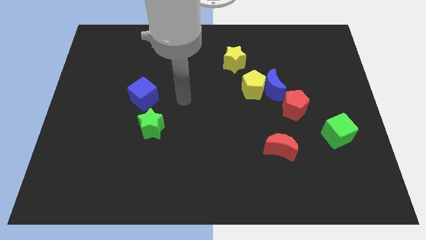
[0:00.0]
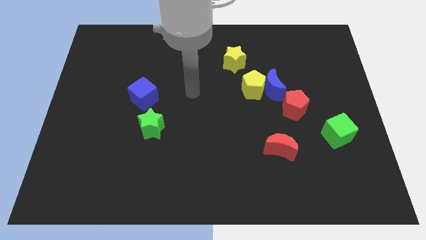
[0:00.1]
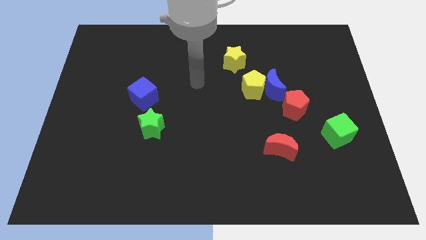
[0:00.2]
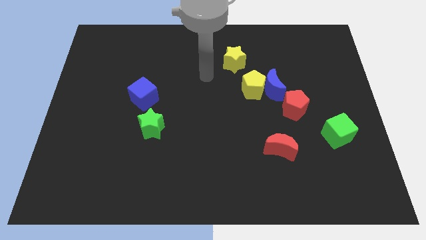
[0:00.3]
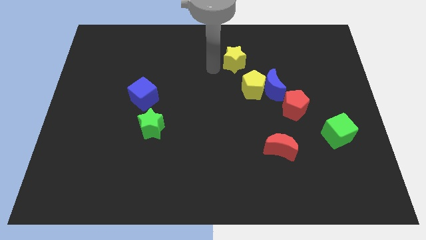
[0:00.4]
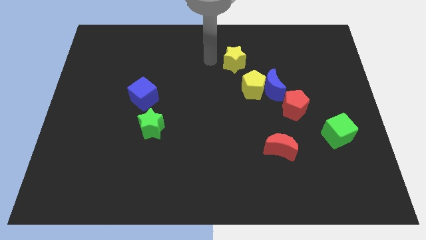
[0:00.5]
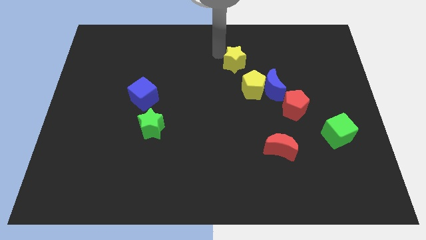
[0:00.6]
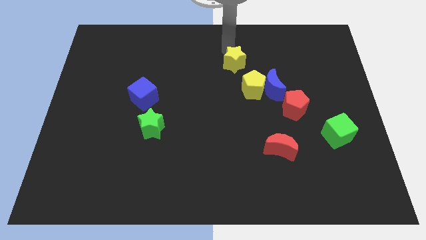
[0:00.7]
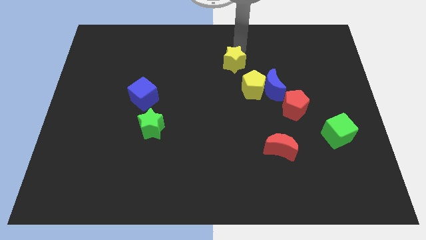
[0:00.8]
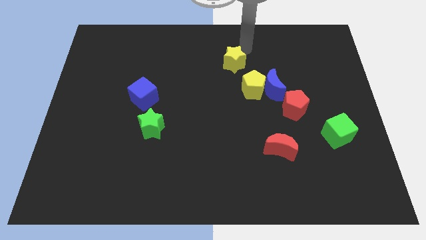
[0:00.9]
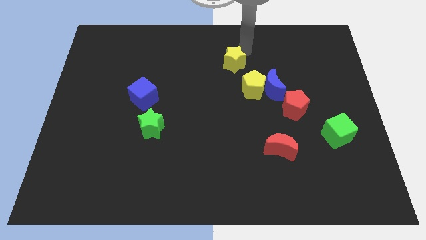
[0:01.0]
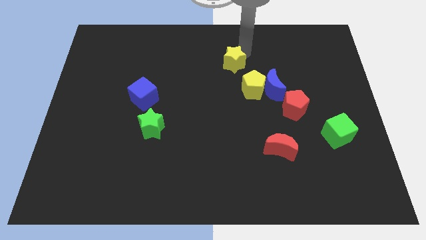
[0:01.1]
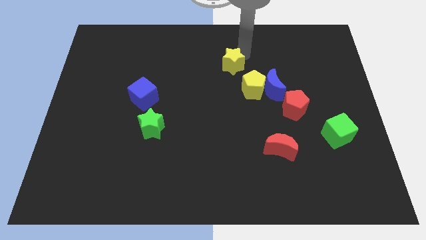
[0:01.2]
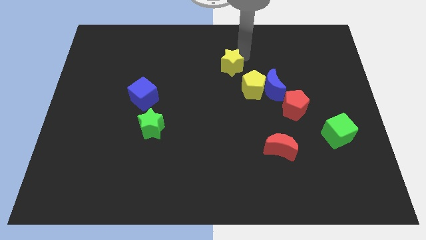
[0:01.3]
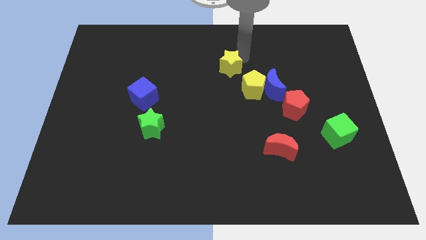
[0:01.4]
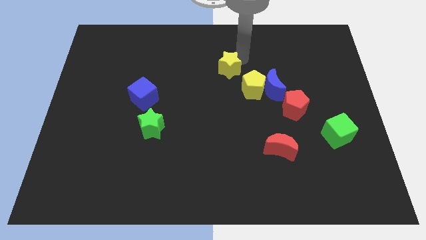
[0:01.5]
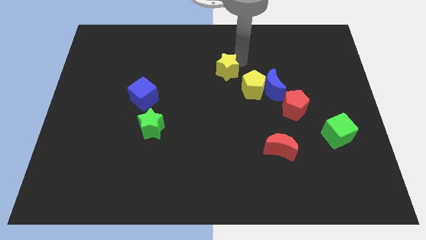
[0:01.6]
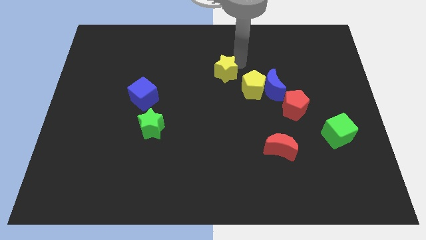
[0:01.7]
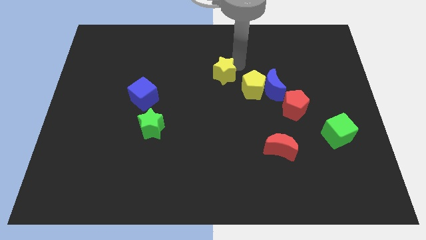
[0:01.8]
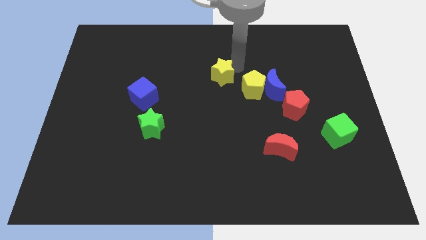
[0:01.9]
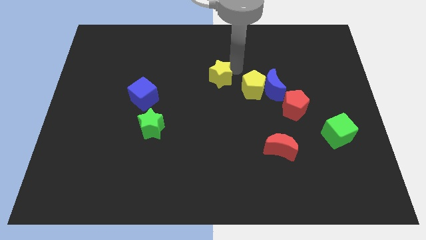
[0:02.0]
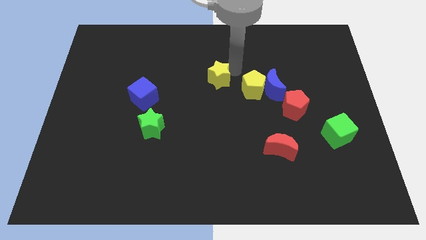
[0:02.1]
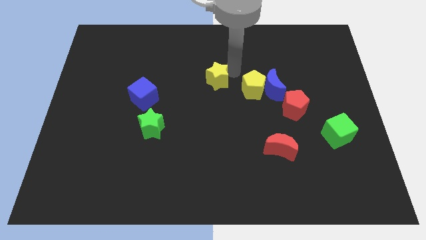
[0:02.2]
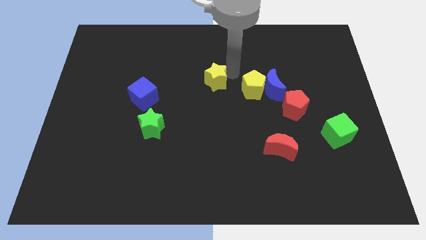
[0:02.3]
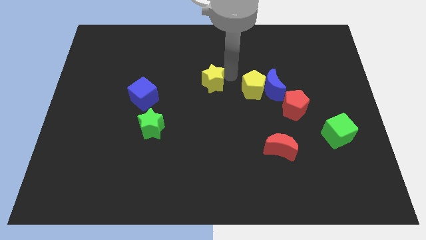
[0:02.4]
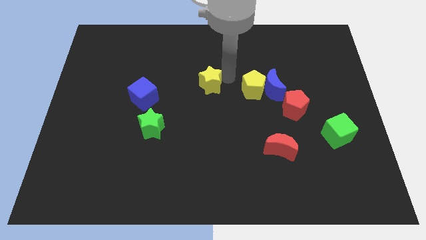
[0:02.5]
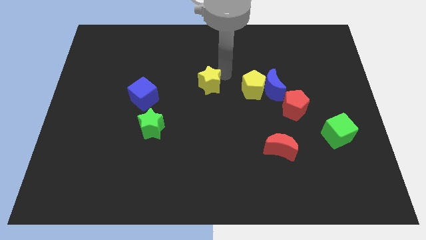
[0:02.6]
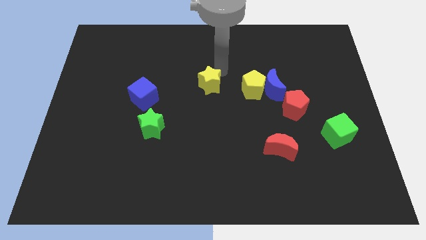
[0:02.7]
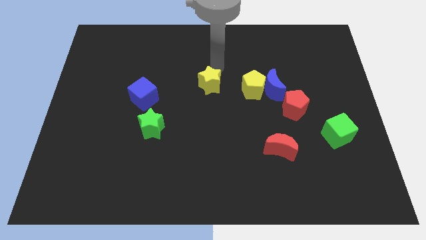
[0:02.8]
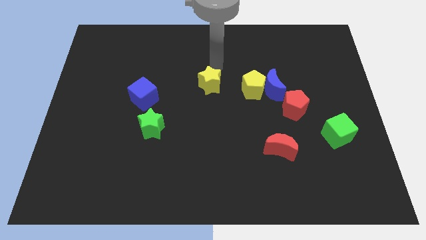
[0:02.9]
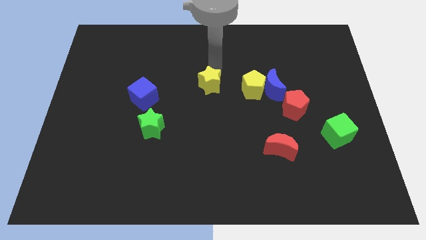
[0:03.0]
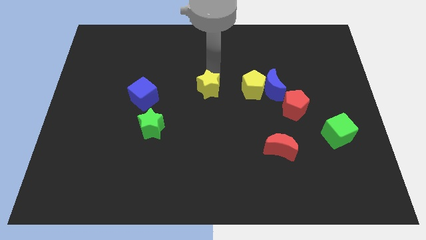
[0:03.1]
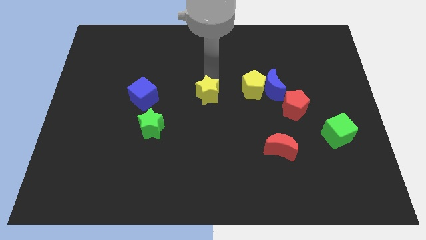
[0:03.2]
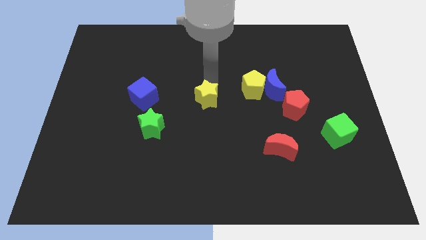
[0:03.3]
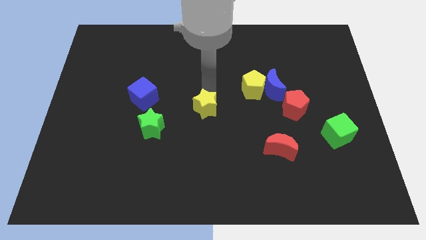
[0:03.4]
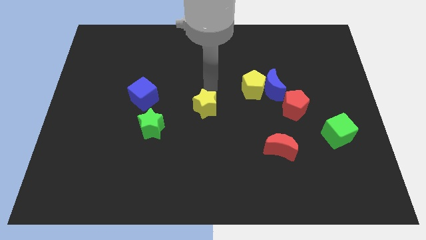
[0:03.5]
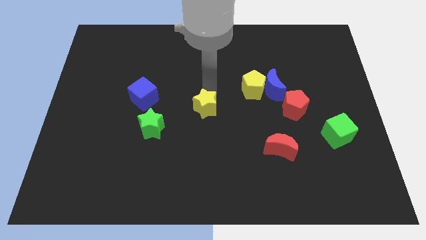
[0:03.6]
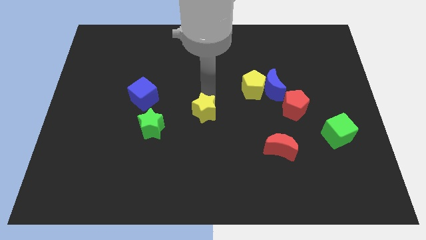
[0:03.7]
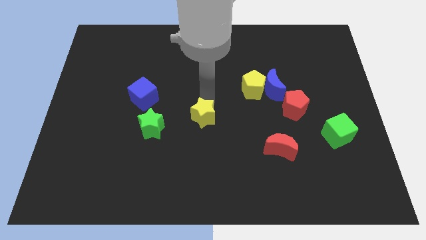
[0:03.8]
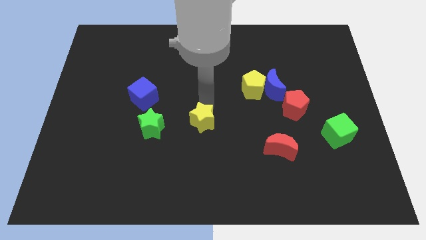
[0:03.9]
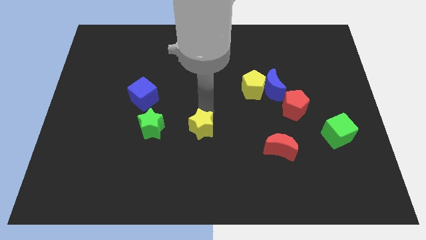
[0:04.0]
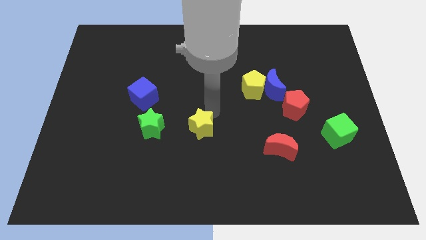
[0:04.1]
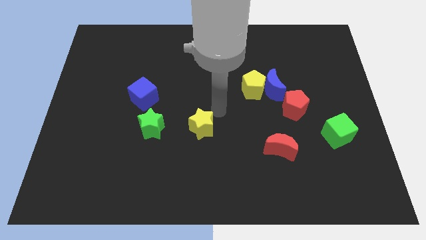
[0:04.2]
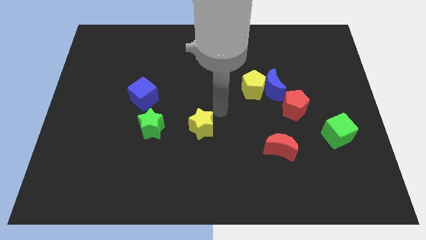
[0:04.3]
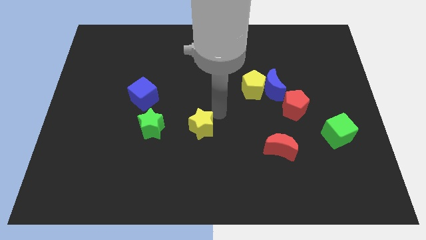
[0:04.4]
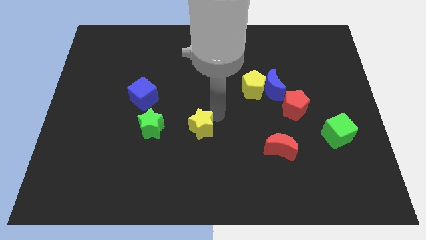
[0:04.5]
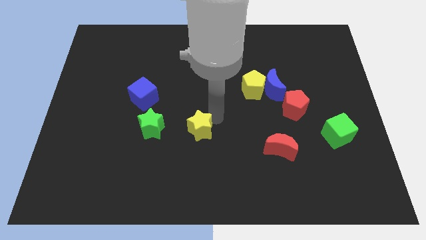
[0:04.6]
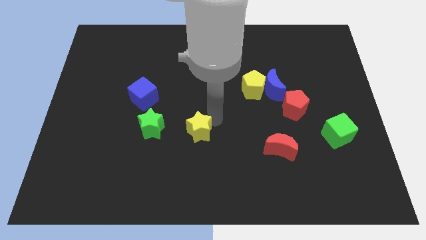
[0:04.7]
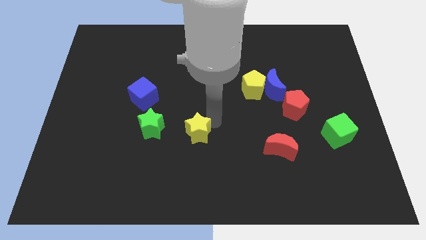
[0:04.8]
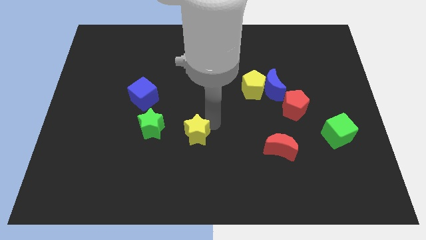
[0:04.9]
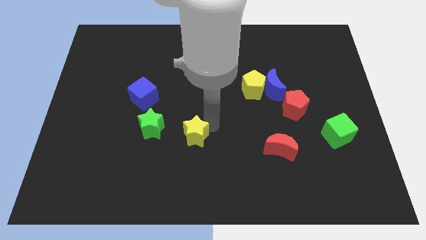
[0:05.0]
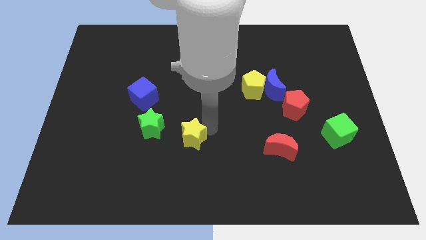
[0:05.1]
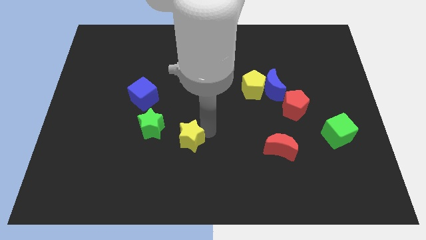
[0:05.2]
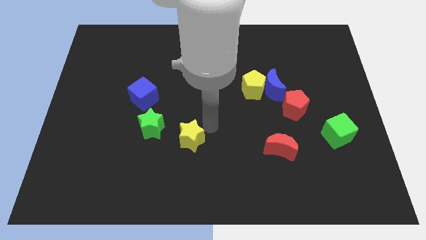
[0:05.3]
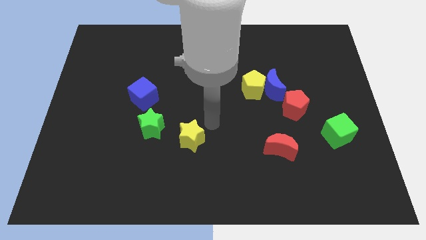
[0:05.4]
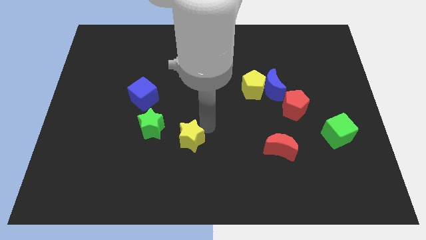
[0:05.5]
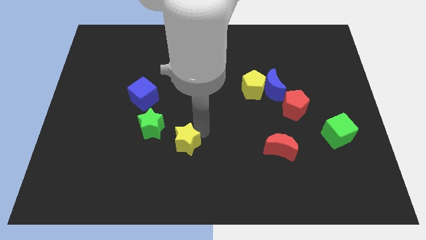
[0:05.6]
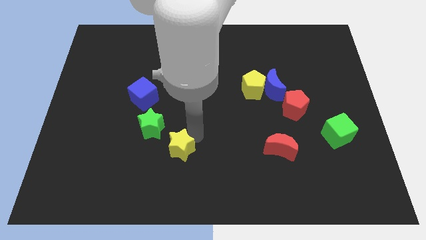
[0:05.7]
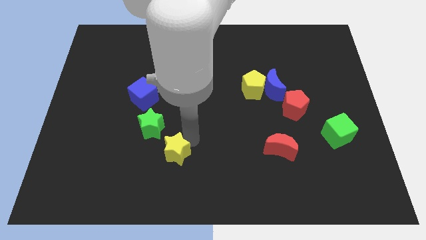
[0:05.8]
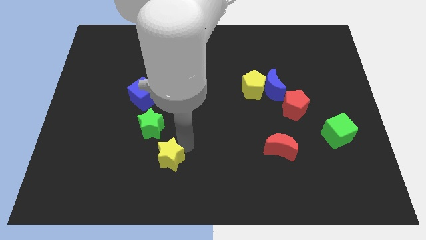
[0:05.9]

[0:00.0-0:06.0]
slide the yellow star to the bottom of the green star
